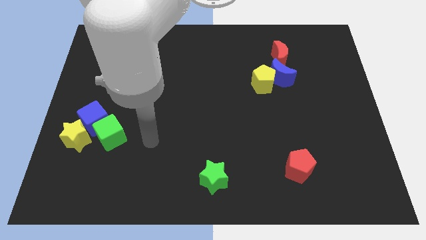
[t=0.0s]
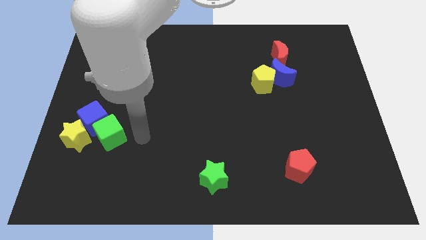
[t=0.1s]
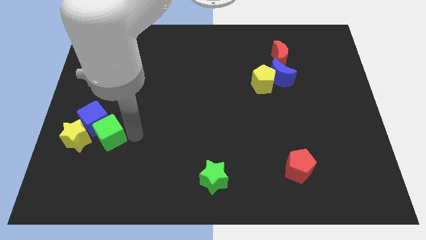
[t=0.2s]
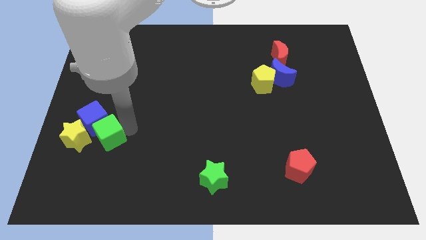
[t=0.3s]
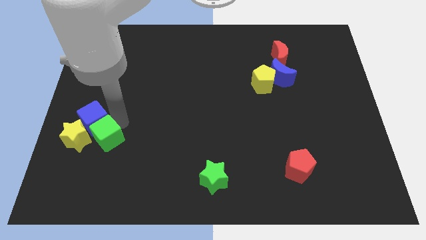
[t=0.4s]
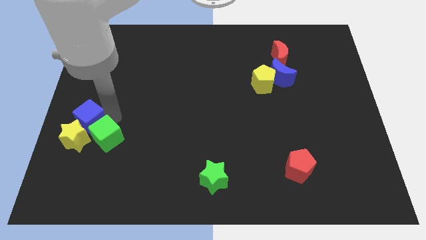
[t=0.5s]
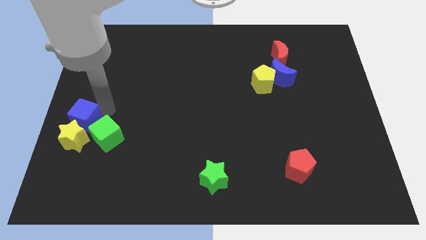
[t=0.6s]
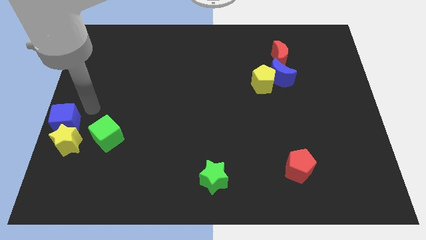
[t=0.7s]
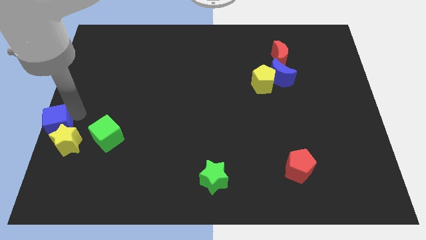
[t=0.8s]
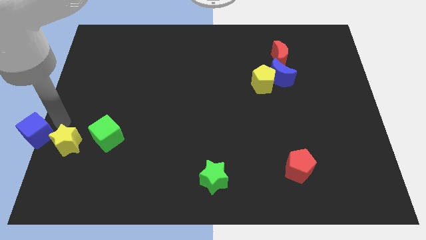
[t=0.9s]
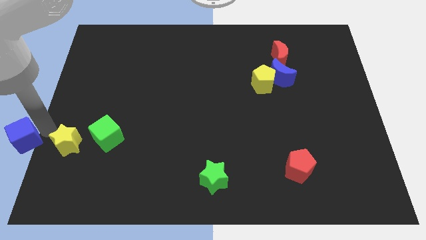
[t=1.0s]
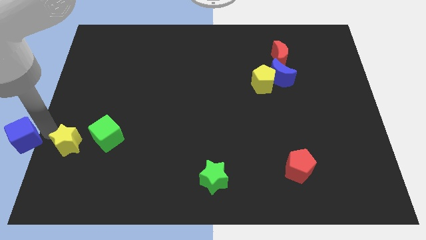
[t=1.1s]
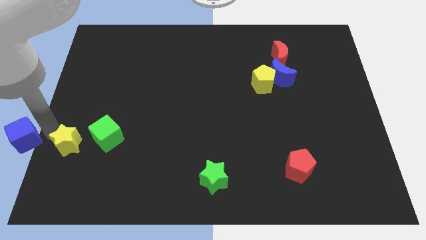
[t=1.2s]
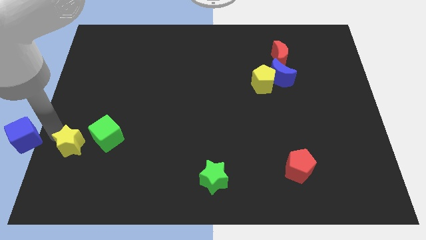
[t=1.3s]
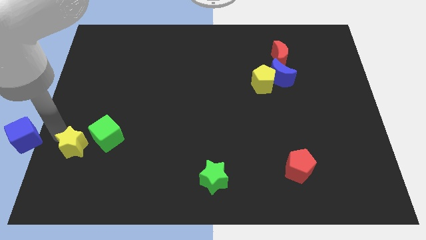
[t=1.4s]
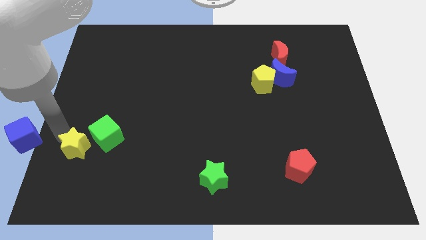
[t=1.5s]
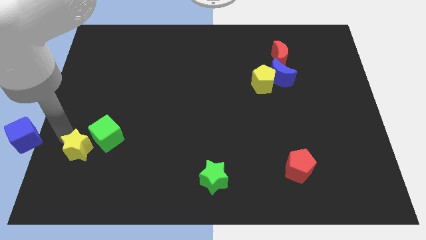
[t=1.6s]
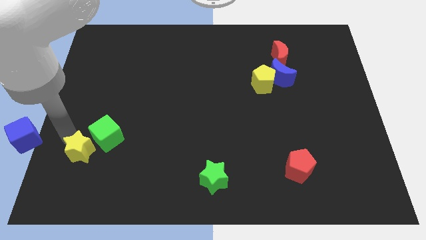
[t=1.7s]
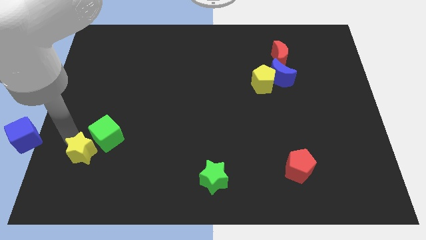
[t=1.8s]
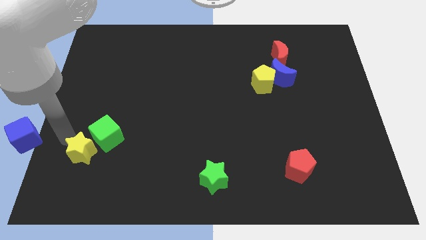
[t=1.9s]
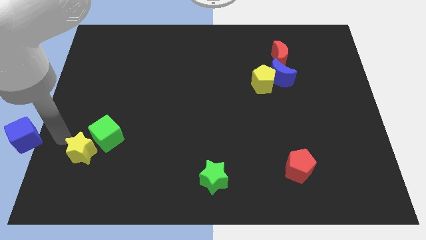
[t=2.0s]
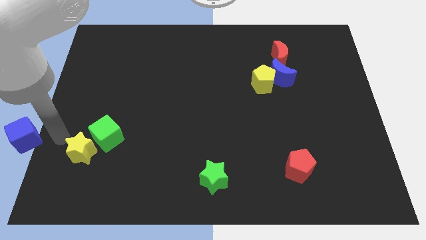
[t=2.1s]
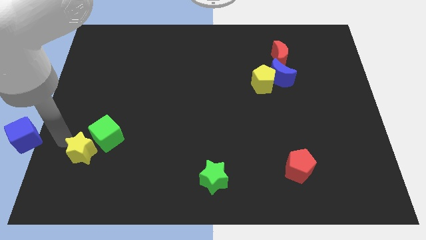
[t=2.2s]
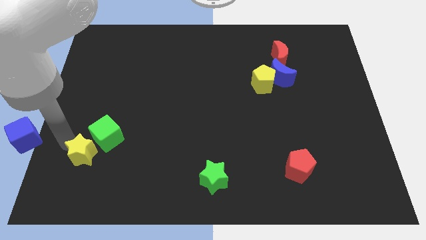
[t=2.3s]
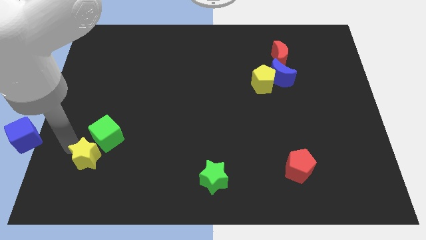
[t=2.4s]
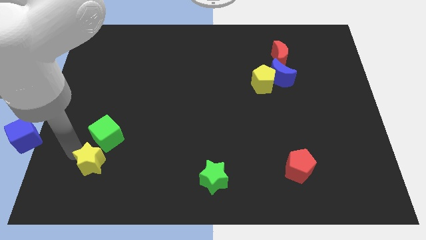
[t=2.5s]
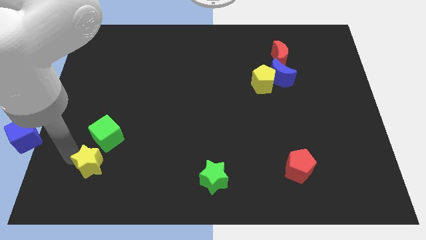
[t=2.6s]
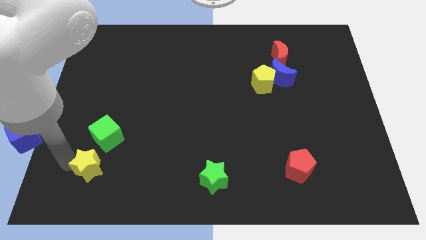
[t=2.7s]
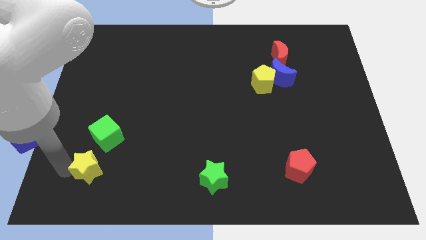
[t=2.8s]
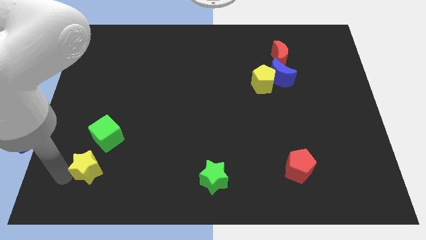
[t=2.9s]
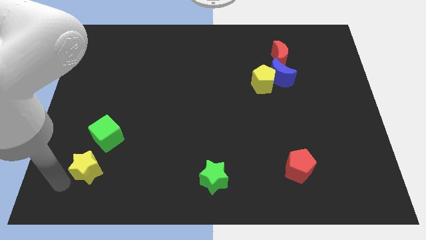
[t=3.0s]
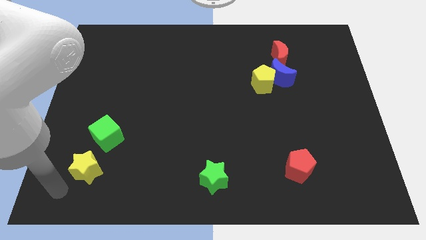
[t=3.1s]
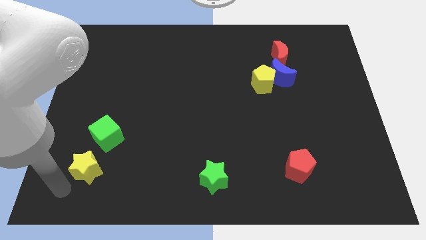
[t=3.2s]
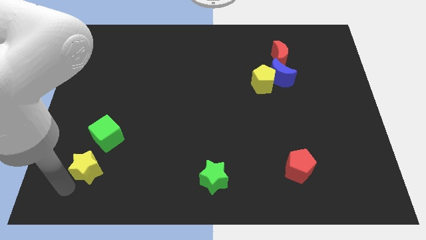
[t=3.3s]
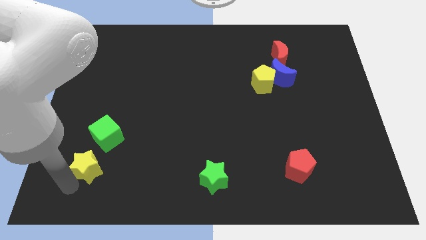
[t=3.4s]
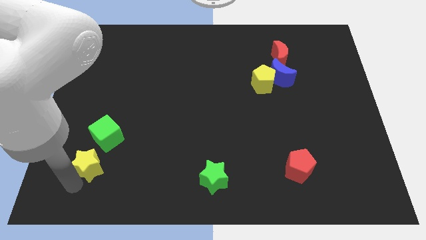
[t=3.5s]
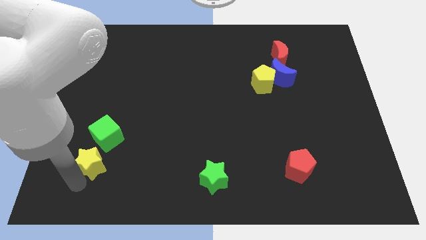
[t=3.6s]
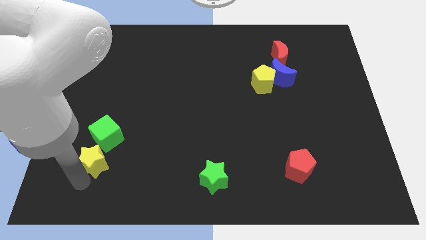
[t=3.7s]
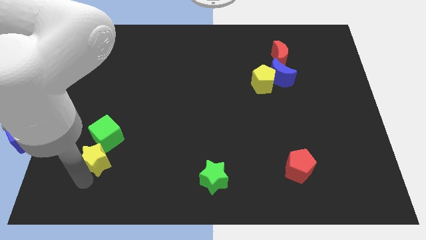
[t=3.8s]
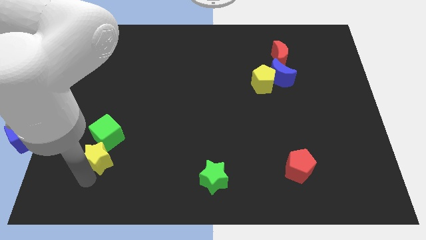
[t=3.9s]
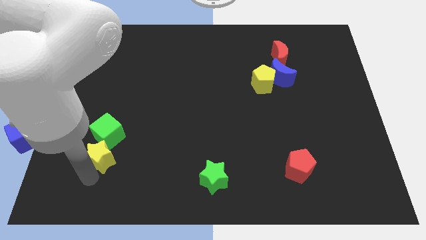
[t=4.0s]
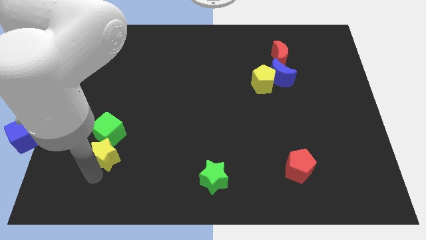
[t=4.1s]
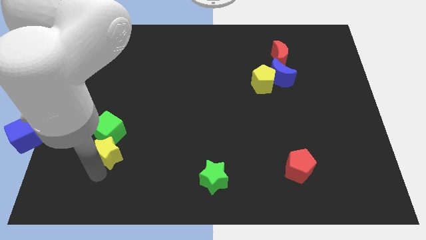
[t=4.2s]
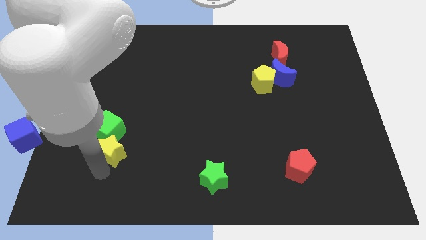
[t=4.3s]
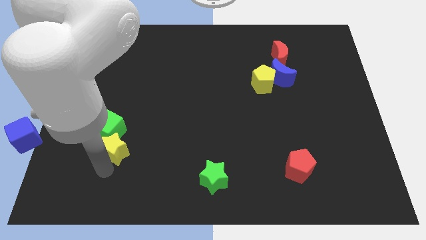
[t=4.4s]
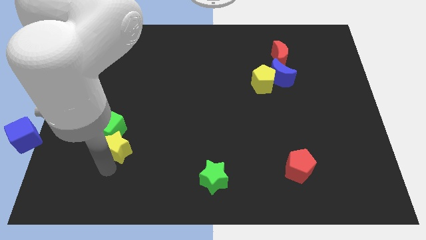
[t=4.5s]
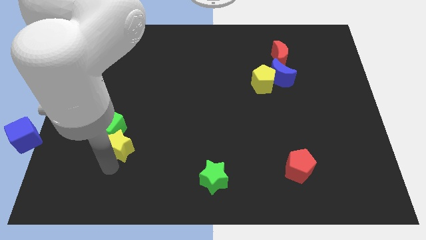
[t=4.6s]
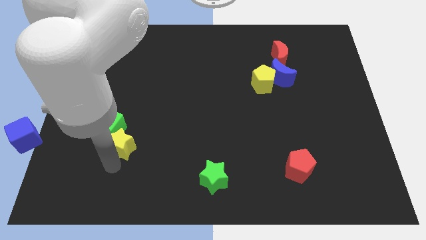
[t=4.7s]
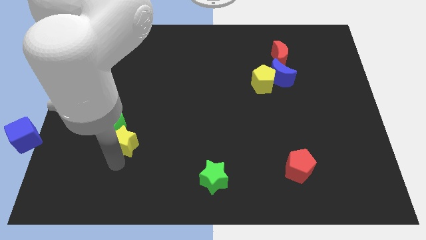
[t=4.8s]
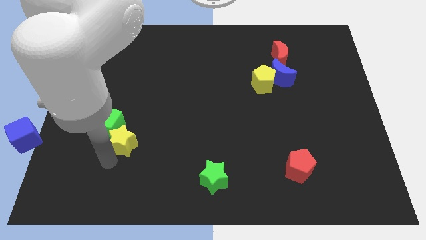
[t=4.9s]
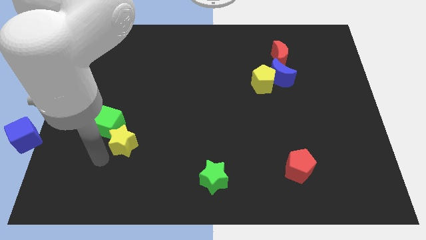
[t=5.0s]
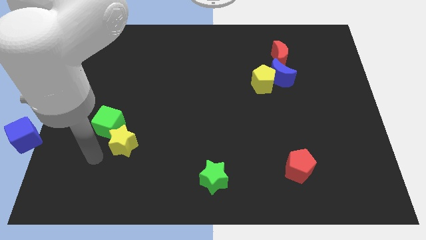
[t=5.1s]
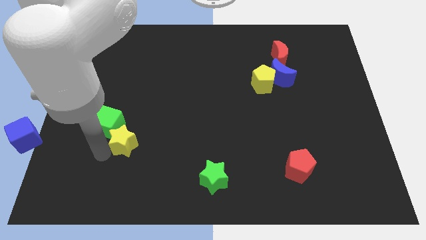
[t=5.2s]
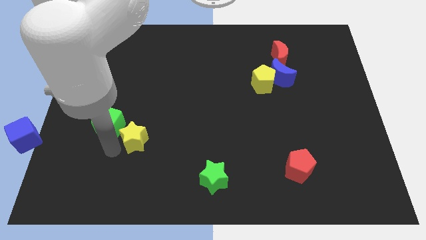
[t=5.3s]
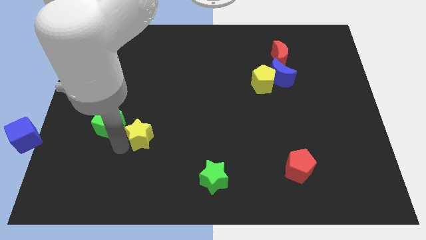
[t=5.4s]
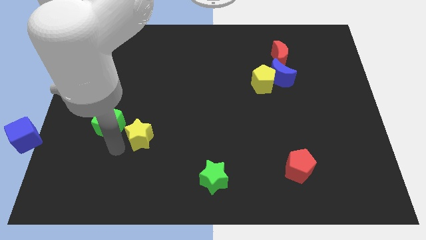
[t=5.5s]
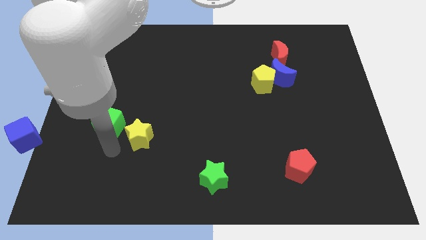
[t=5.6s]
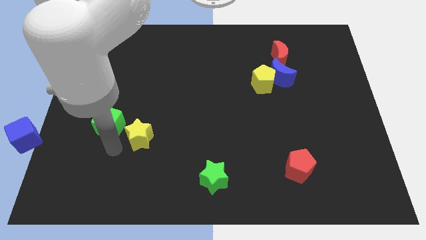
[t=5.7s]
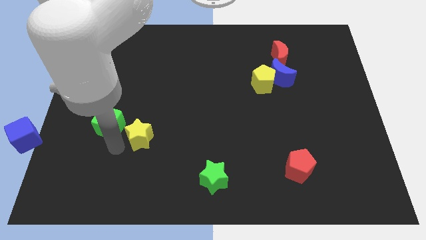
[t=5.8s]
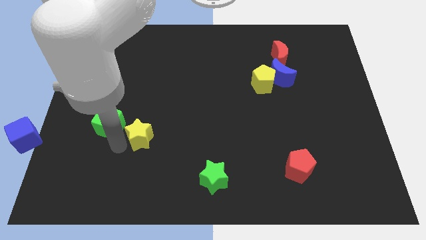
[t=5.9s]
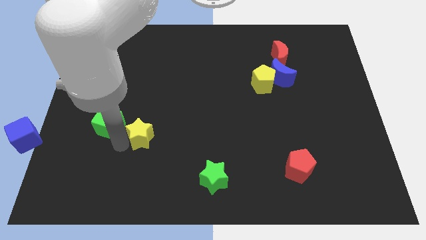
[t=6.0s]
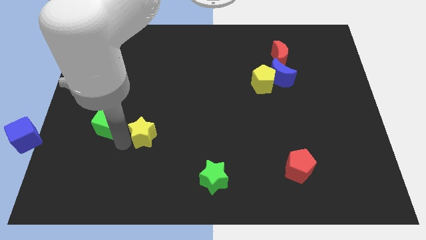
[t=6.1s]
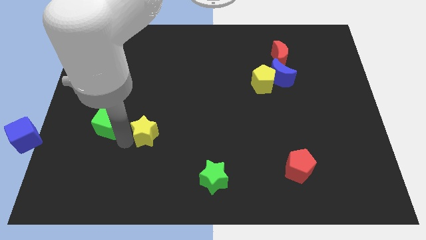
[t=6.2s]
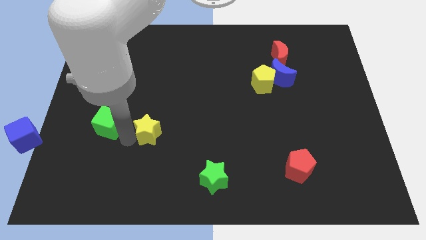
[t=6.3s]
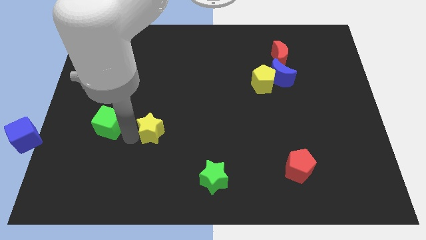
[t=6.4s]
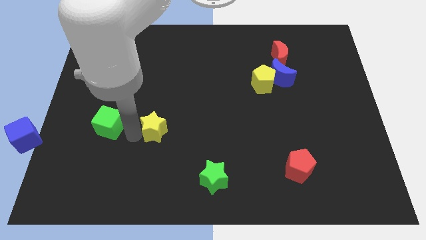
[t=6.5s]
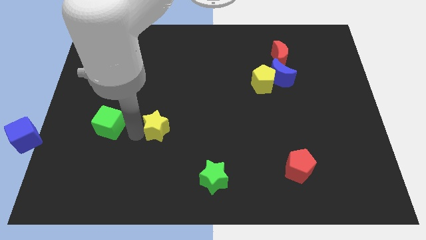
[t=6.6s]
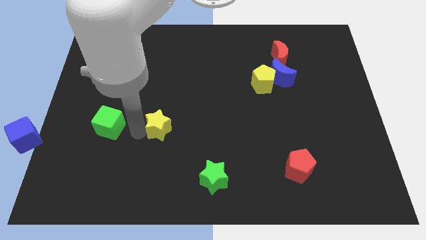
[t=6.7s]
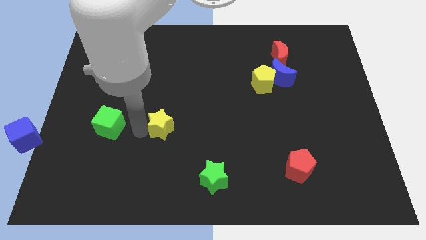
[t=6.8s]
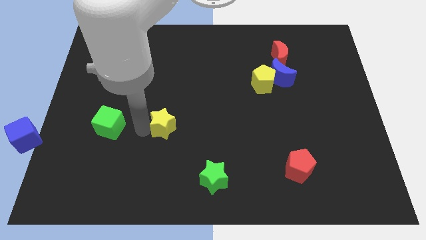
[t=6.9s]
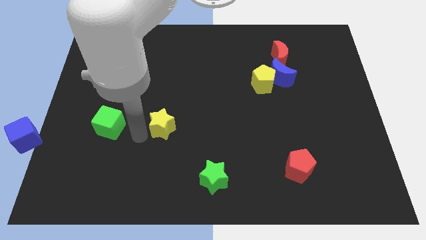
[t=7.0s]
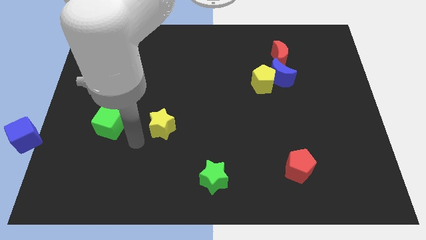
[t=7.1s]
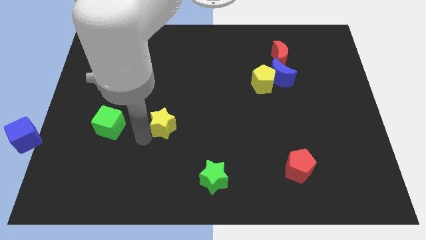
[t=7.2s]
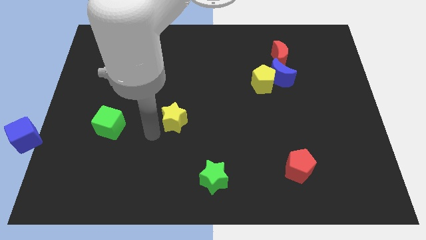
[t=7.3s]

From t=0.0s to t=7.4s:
move the yellow star to the middle of the board
